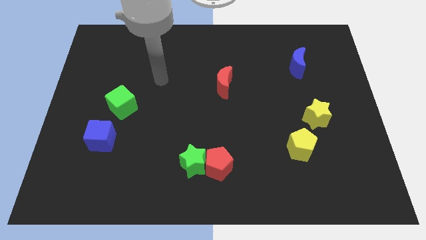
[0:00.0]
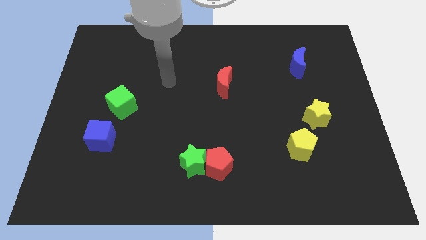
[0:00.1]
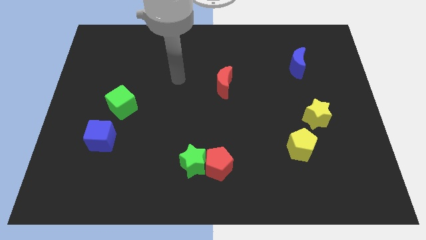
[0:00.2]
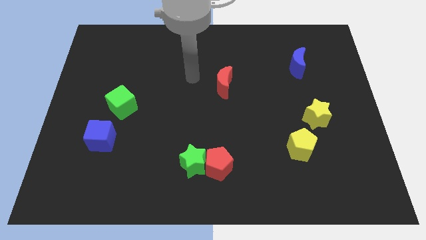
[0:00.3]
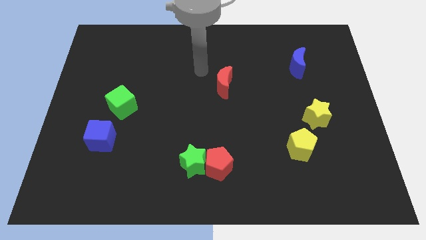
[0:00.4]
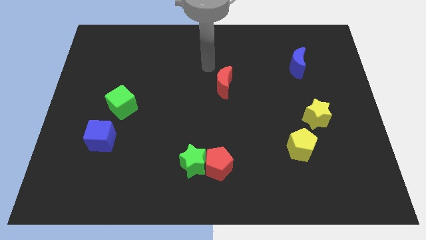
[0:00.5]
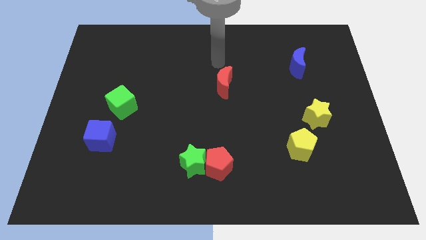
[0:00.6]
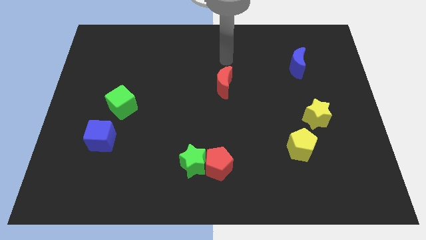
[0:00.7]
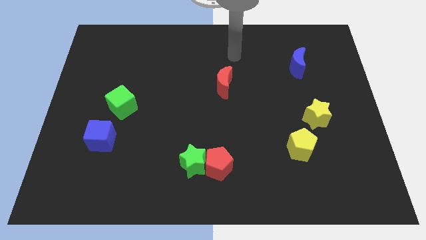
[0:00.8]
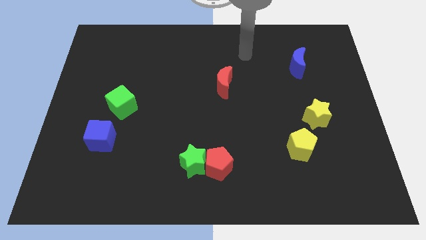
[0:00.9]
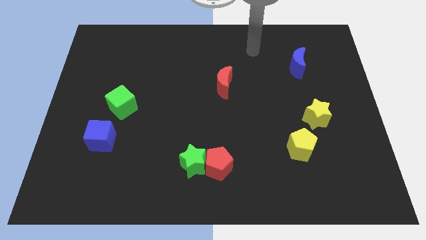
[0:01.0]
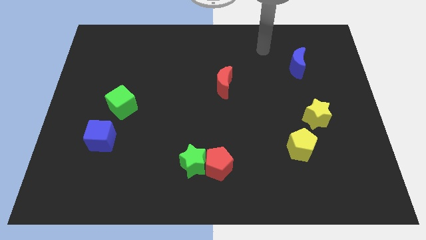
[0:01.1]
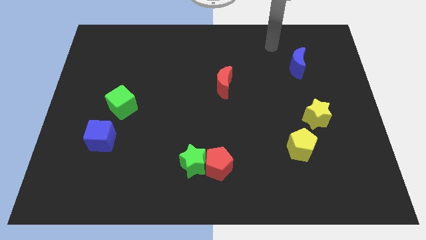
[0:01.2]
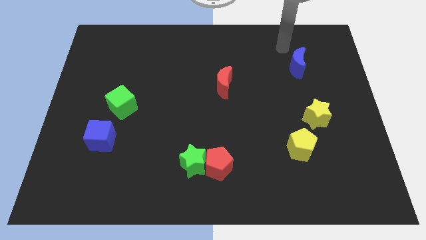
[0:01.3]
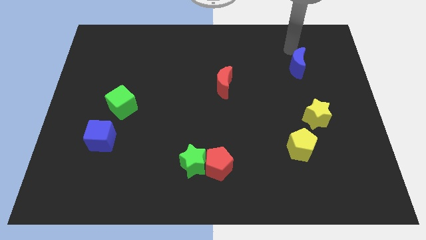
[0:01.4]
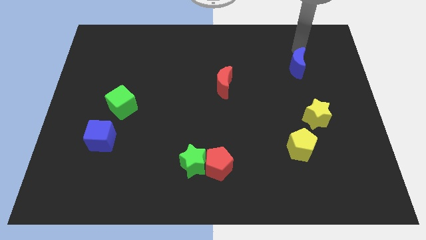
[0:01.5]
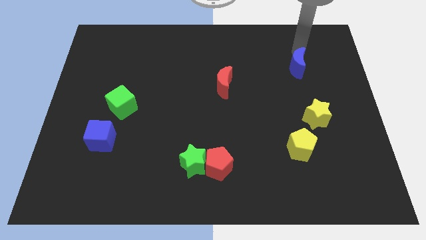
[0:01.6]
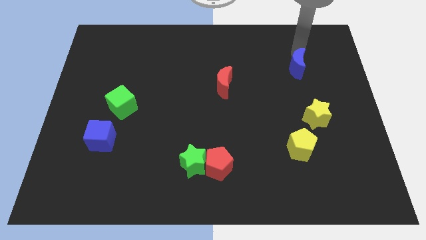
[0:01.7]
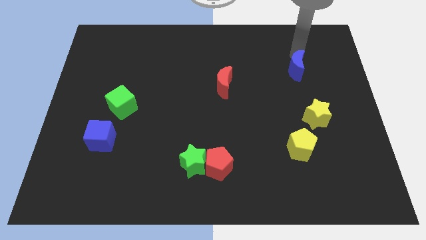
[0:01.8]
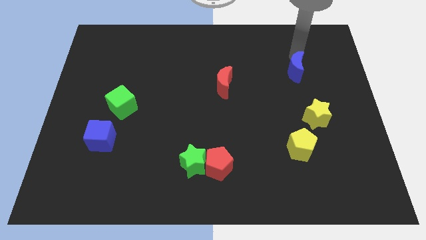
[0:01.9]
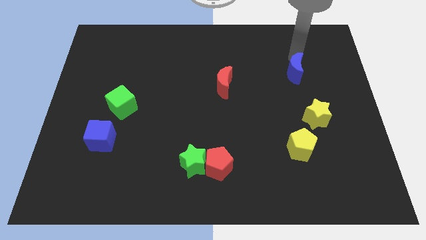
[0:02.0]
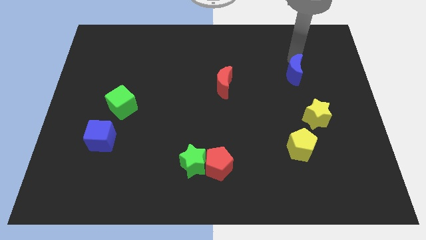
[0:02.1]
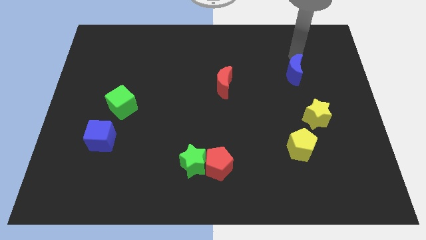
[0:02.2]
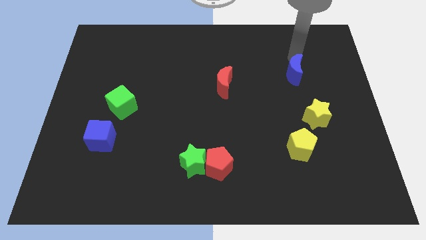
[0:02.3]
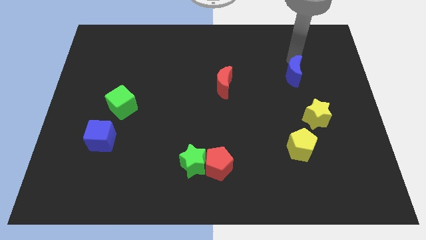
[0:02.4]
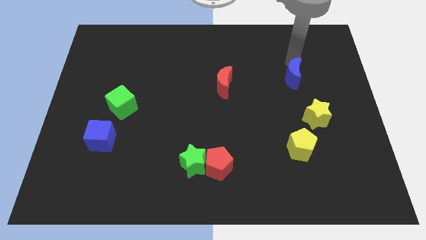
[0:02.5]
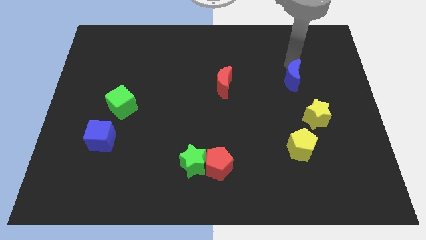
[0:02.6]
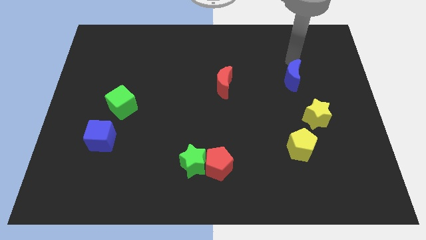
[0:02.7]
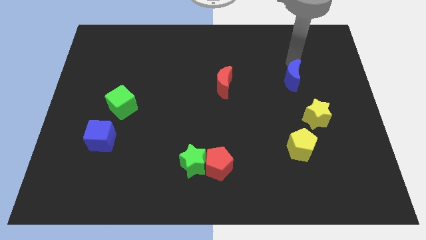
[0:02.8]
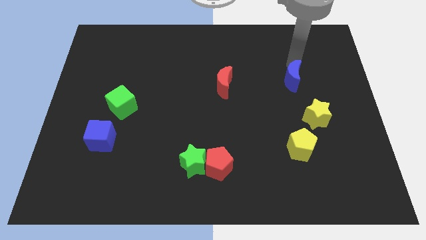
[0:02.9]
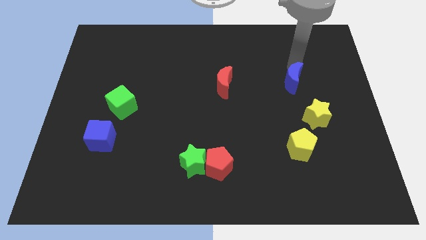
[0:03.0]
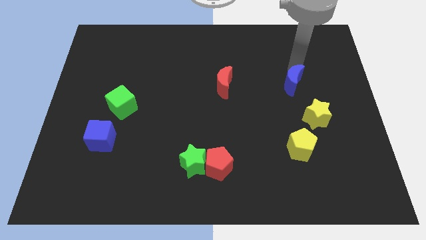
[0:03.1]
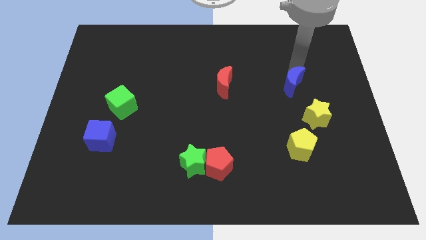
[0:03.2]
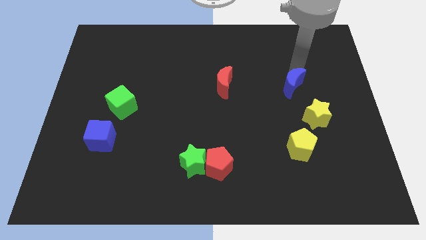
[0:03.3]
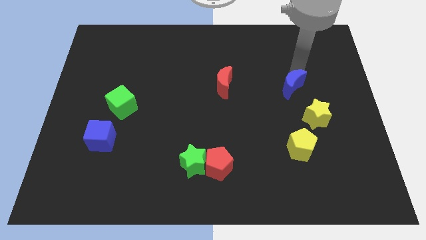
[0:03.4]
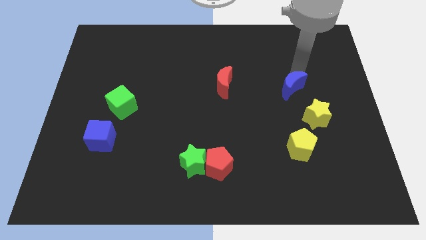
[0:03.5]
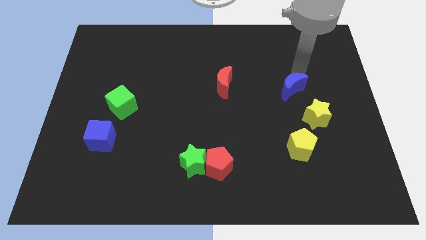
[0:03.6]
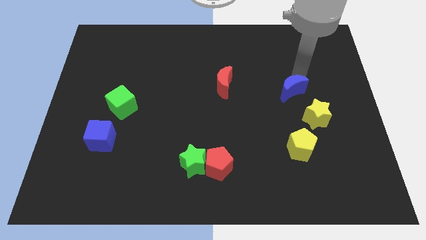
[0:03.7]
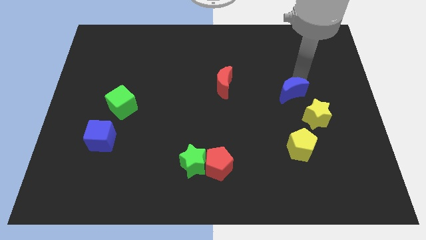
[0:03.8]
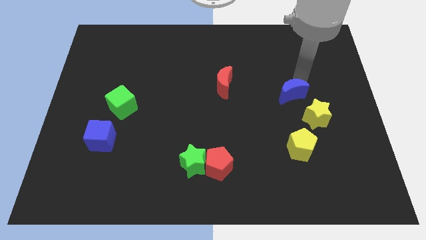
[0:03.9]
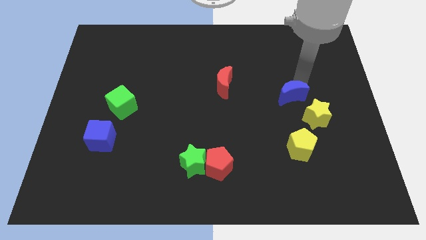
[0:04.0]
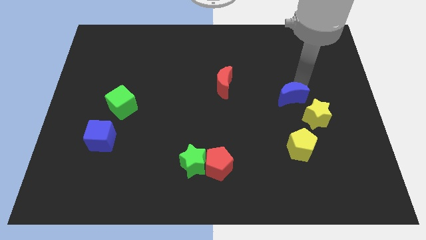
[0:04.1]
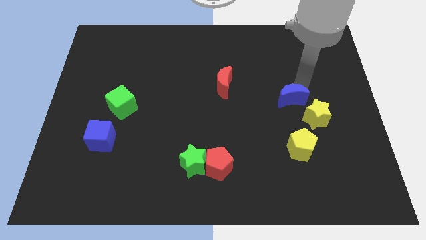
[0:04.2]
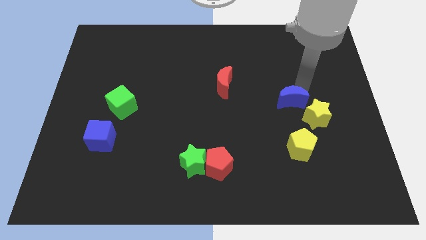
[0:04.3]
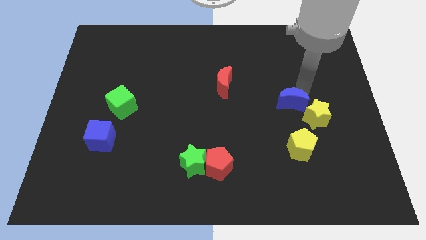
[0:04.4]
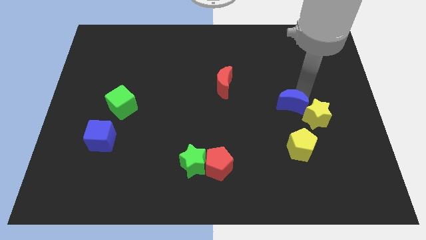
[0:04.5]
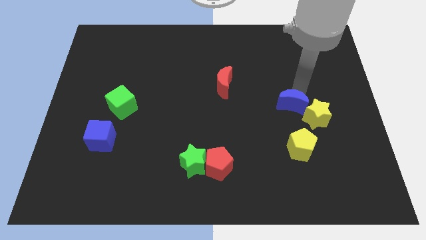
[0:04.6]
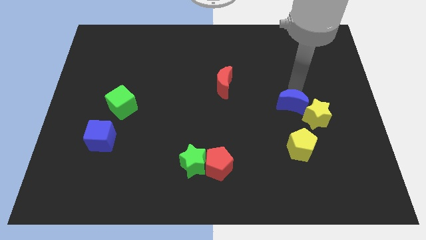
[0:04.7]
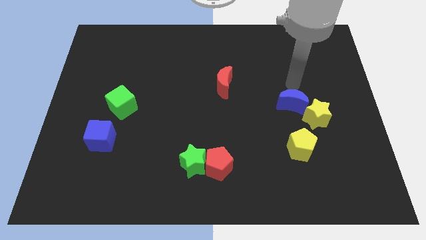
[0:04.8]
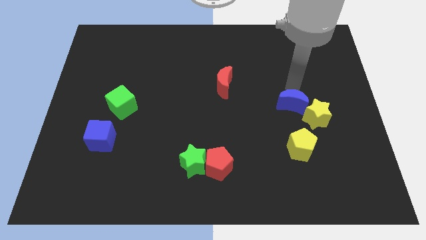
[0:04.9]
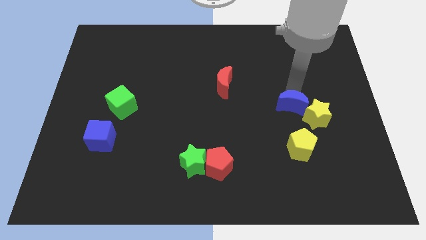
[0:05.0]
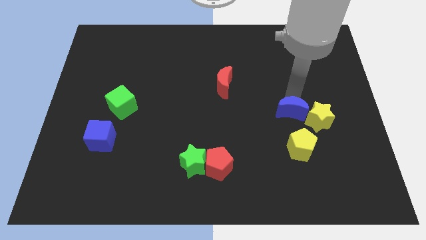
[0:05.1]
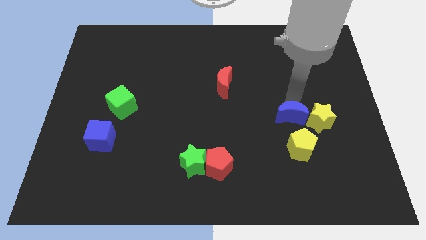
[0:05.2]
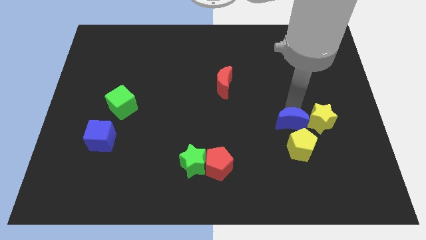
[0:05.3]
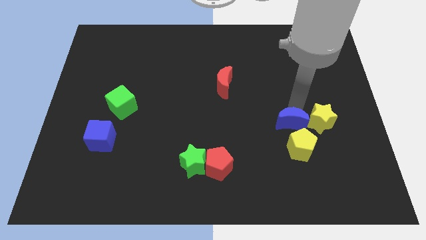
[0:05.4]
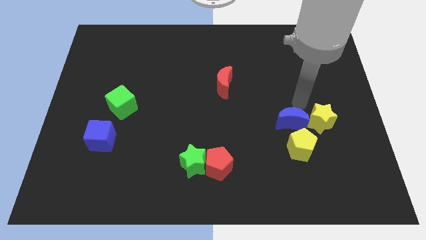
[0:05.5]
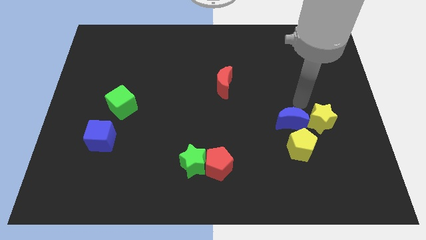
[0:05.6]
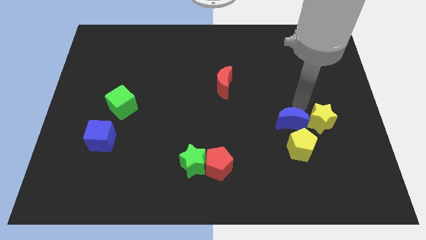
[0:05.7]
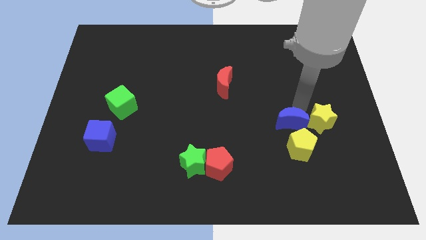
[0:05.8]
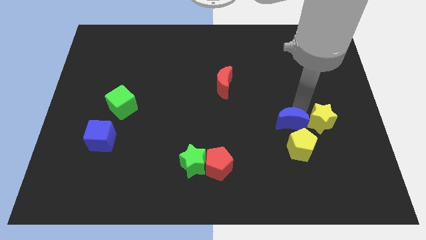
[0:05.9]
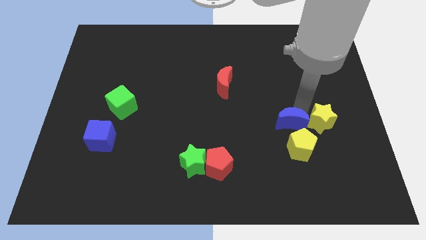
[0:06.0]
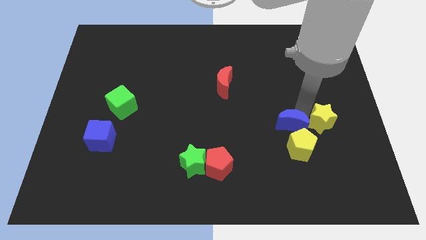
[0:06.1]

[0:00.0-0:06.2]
slide the blue moon close to the yellow pentagon
